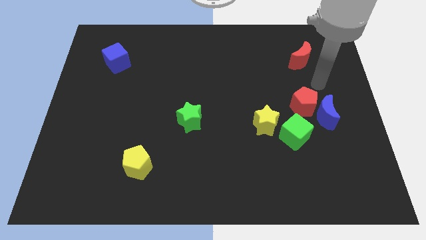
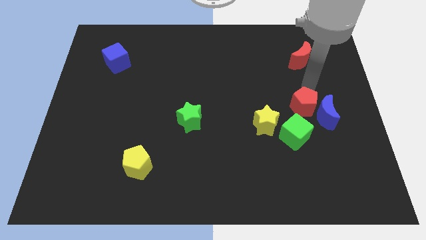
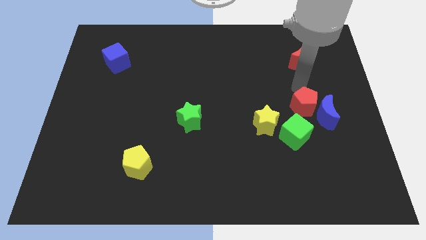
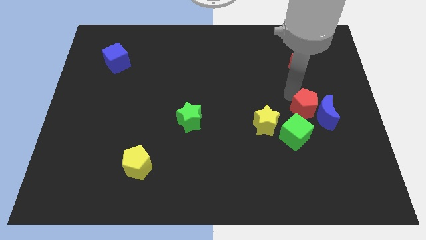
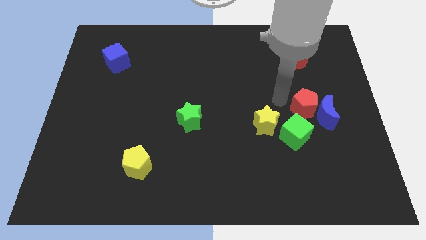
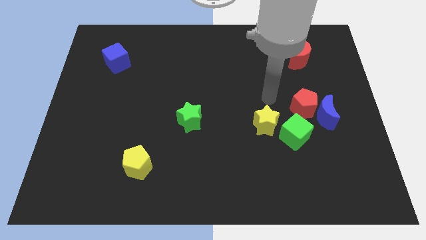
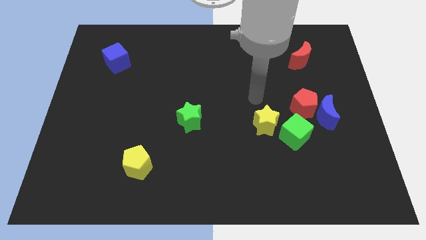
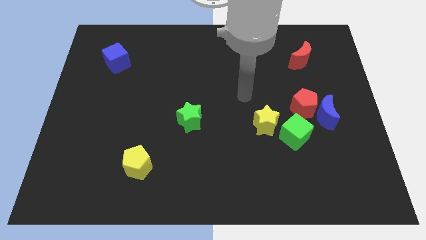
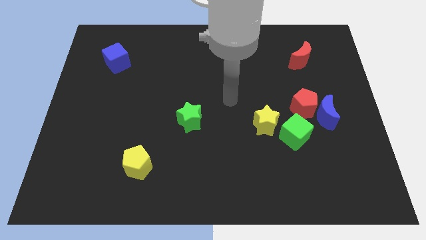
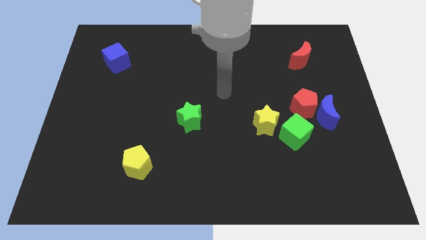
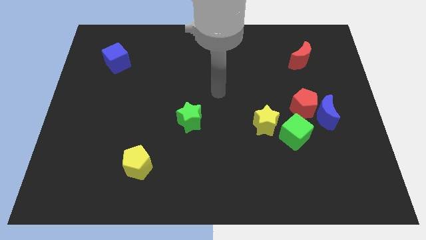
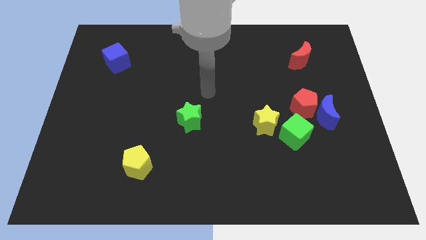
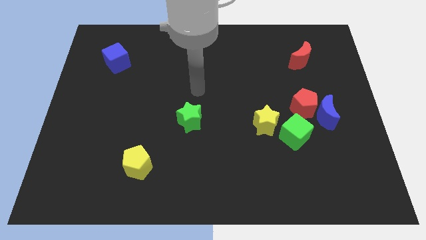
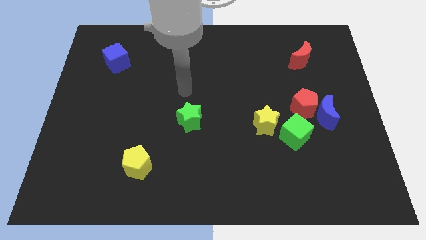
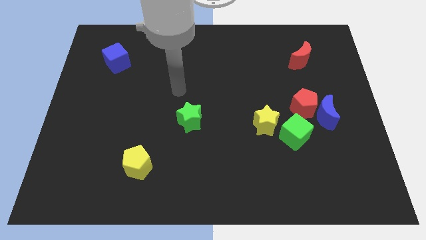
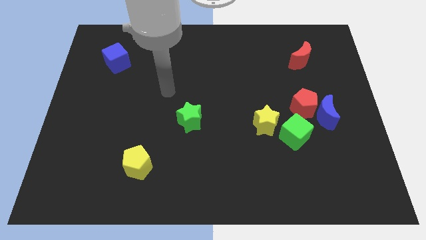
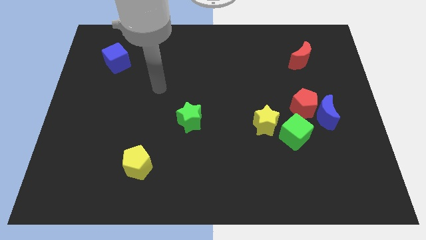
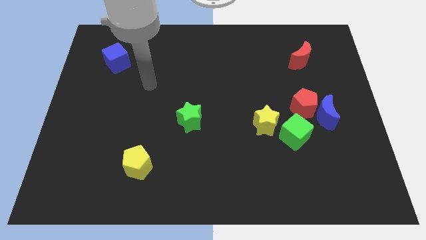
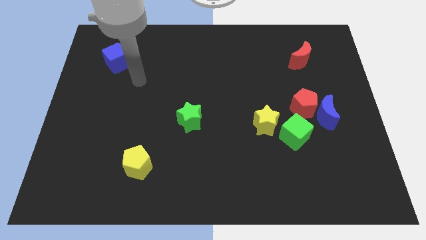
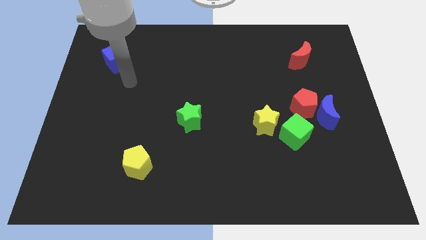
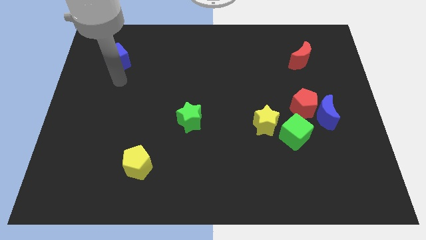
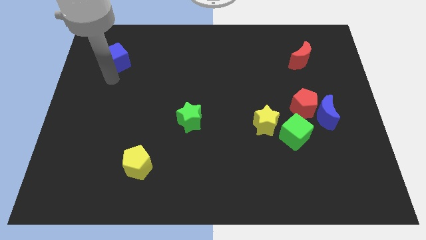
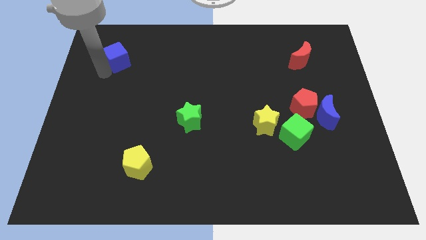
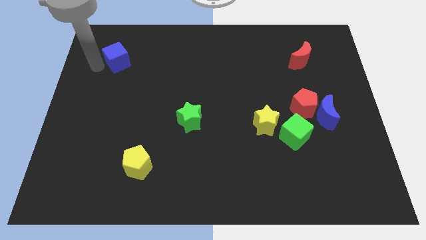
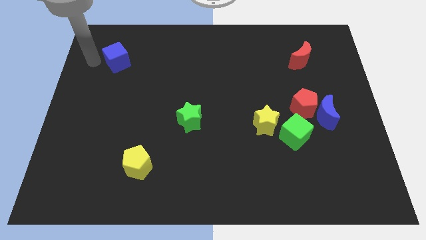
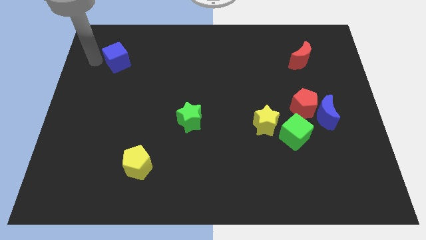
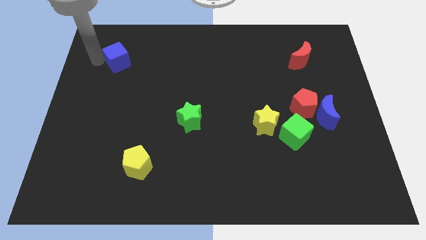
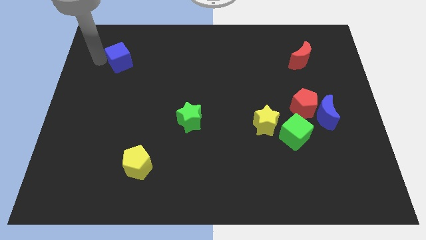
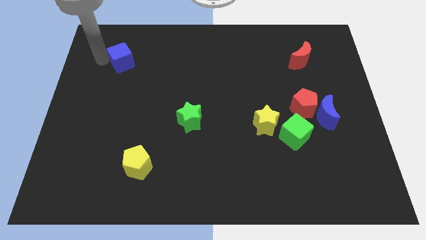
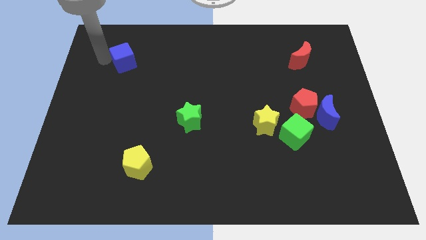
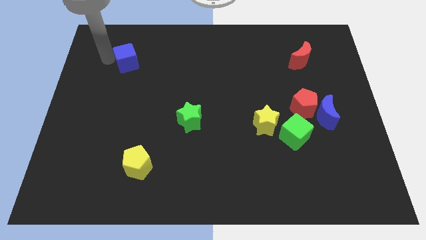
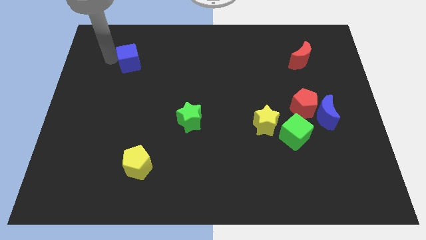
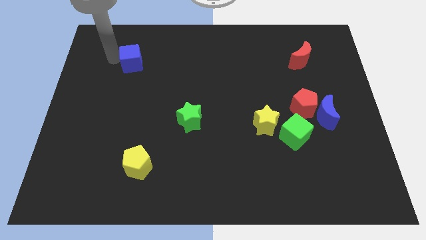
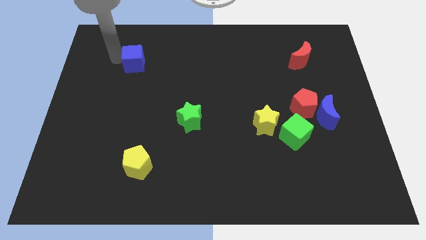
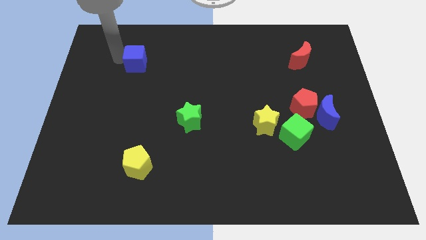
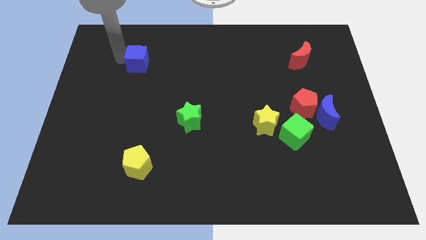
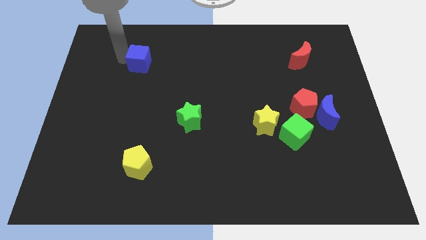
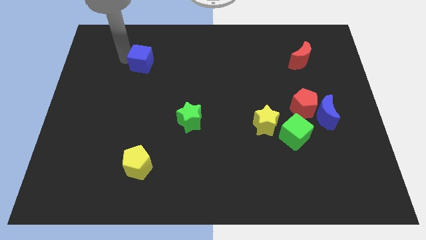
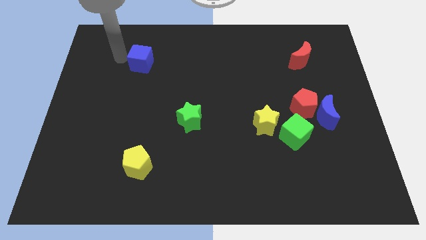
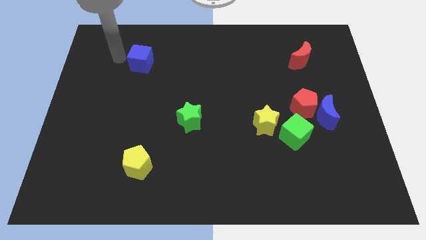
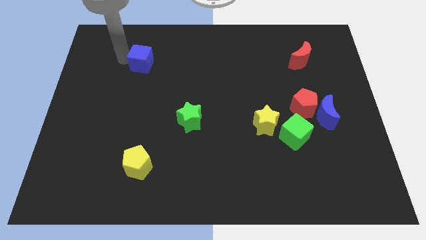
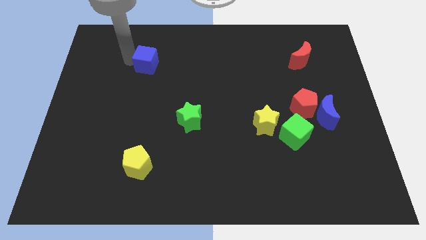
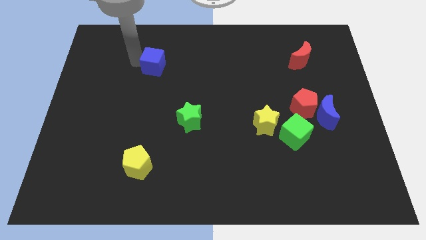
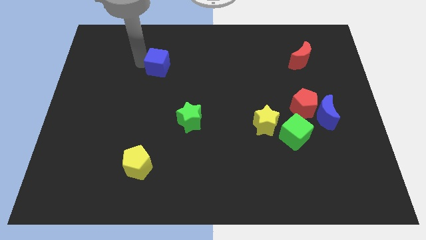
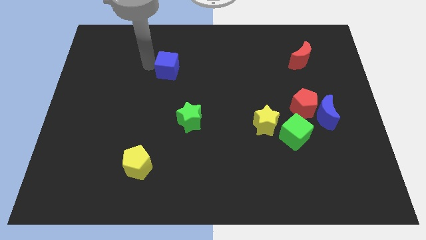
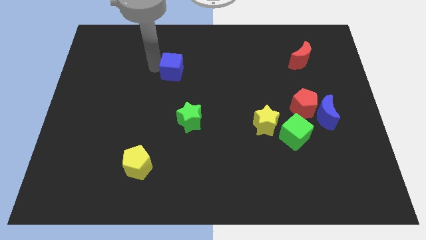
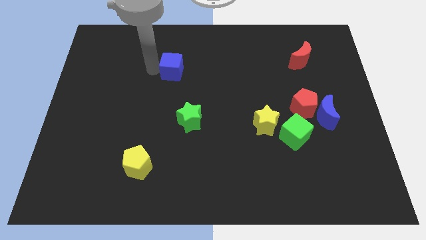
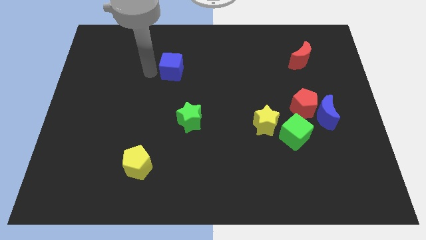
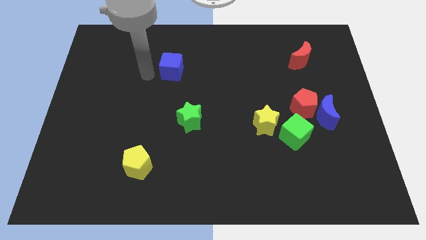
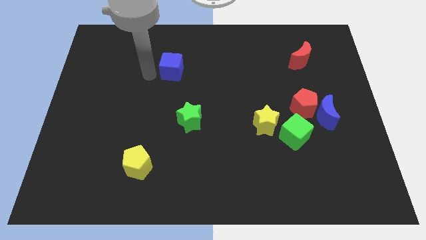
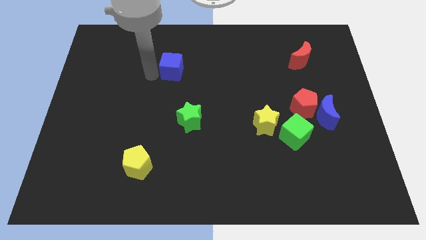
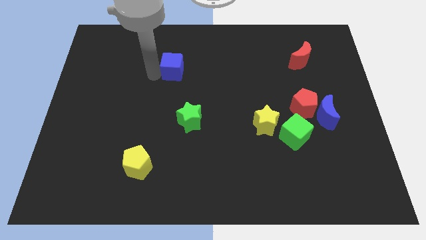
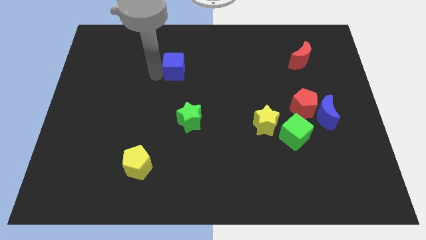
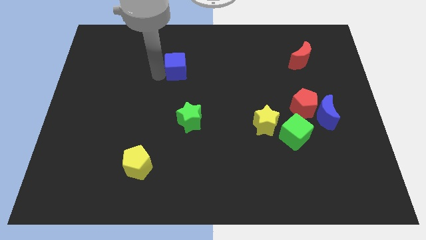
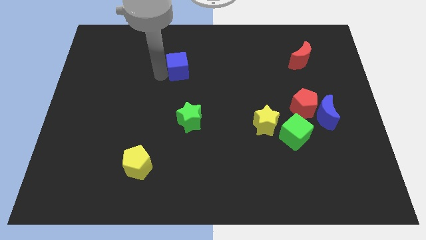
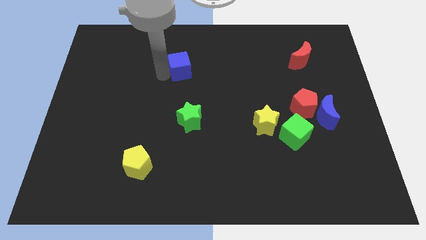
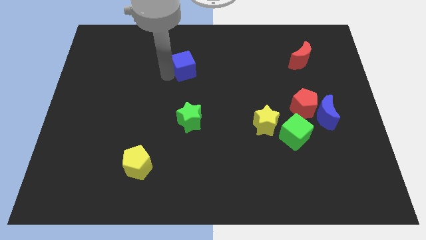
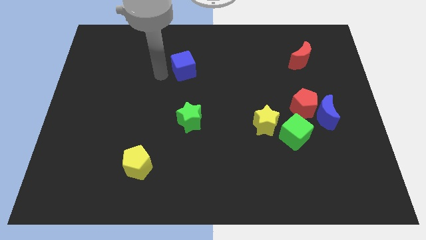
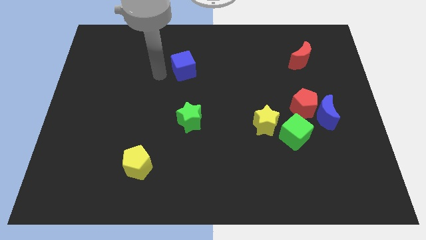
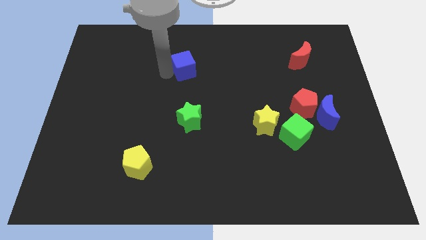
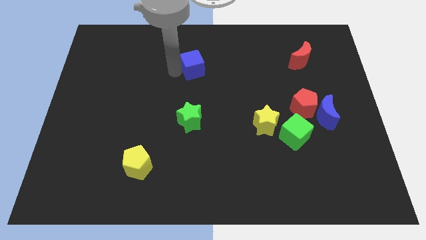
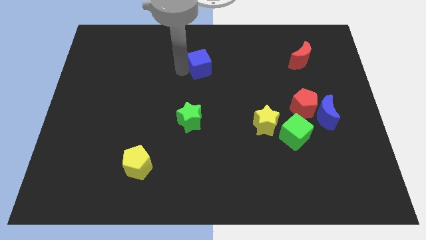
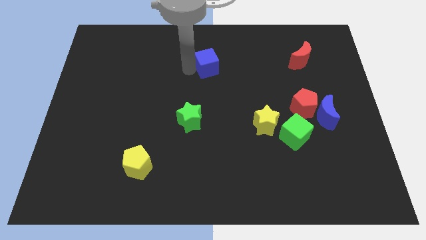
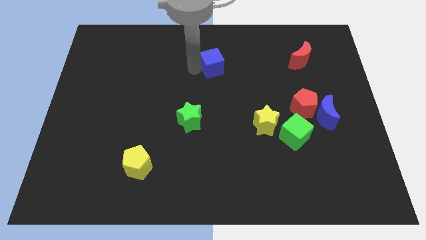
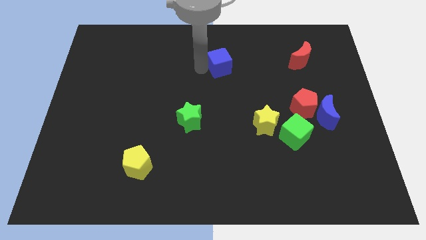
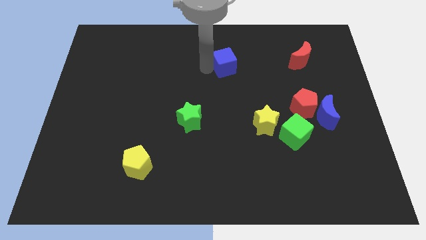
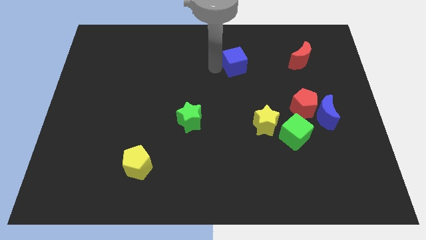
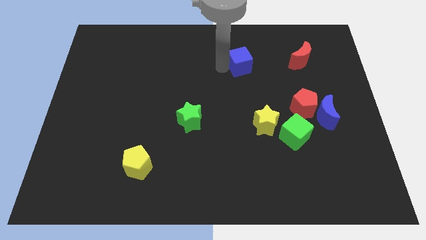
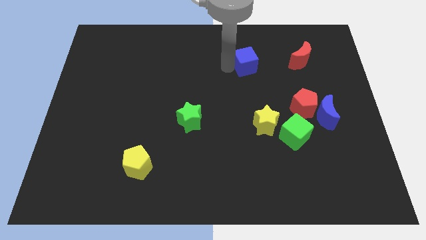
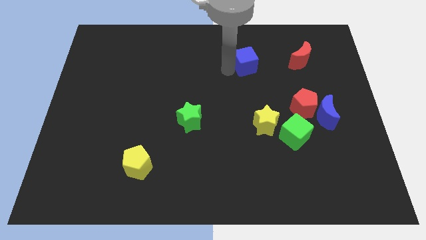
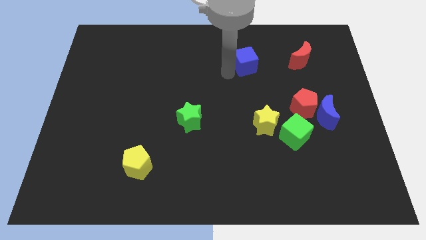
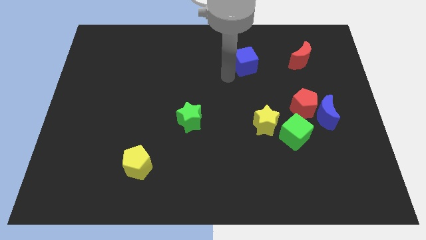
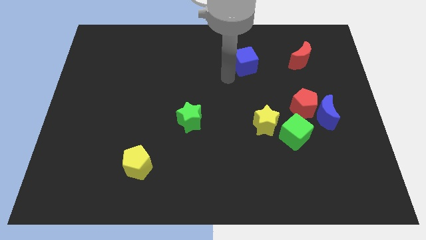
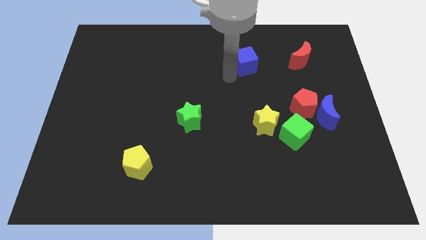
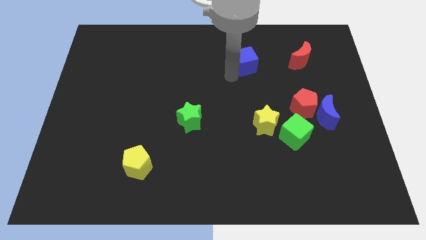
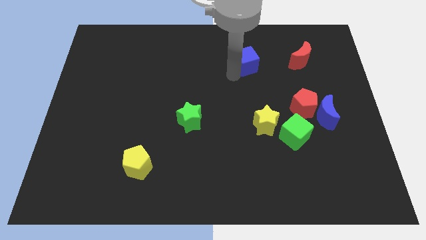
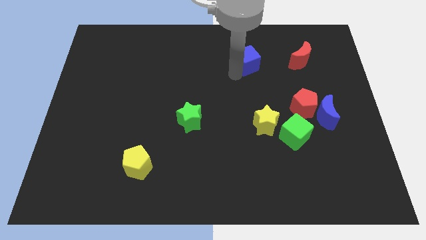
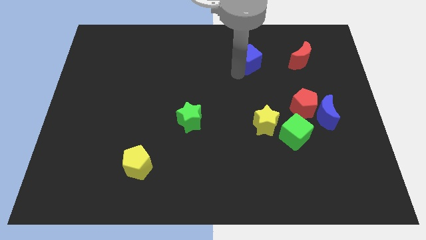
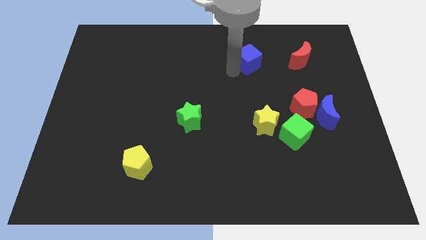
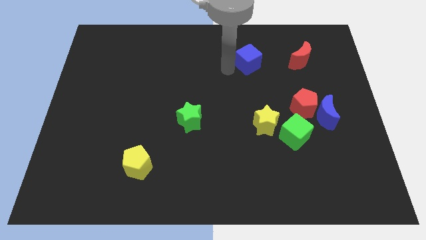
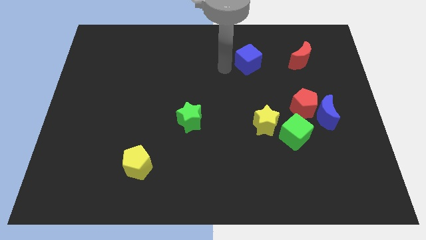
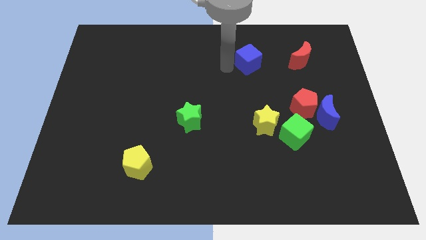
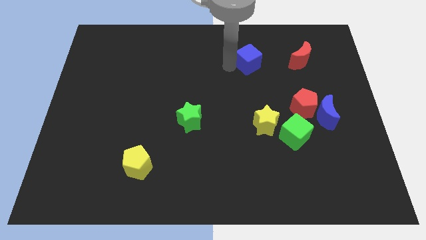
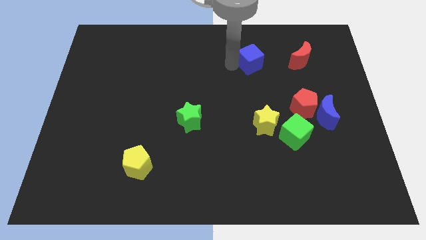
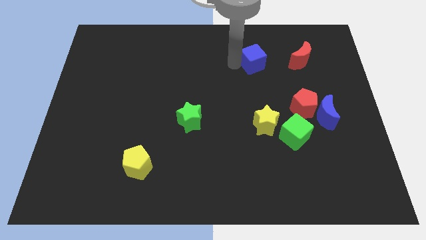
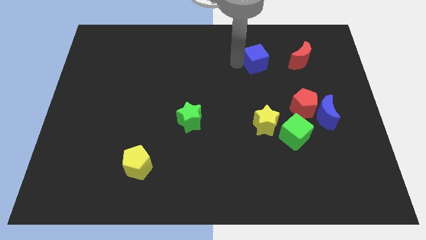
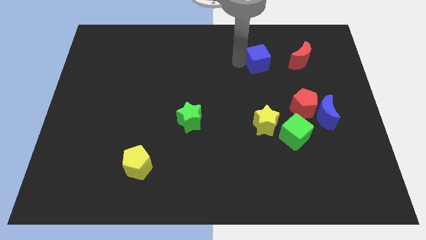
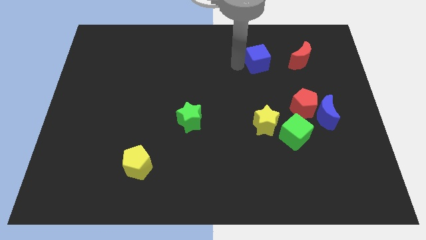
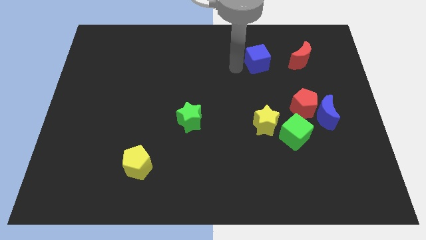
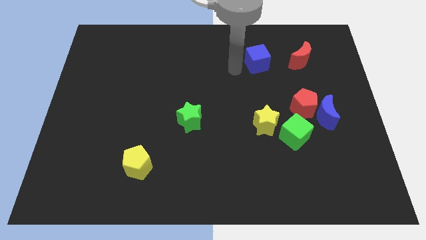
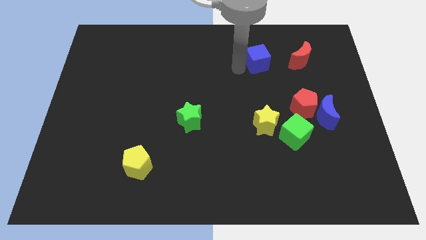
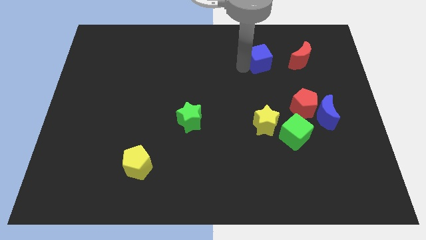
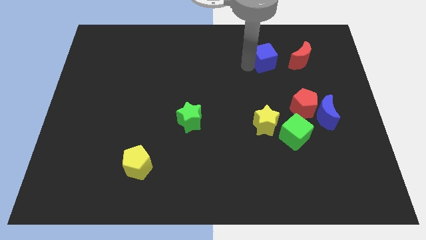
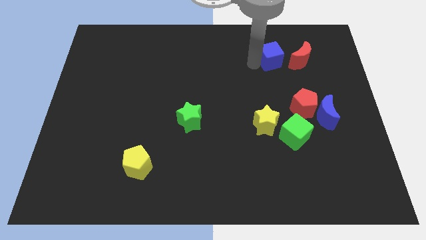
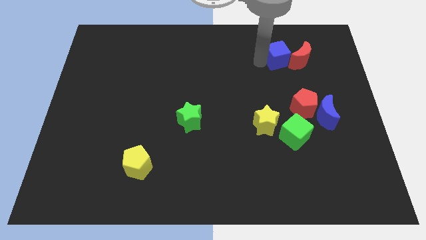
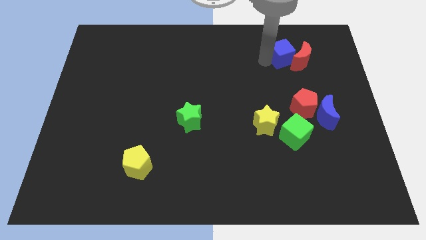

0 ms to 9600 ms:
put the blue cube next to the red moon
